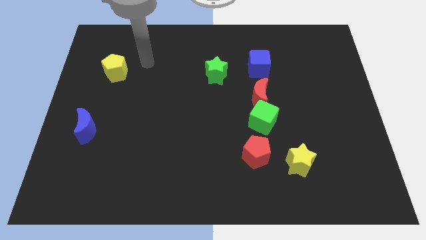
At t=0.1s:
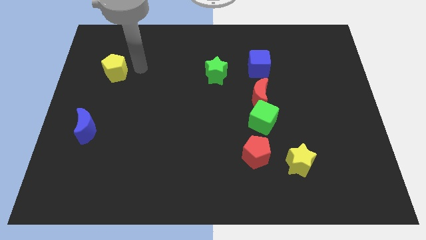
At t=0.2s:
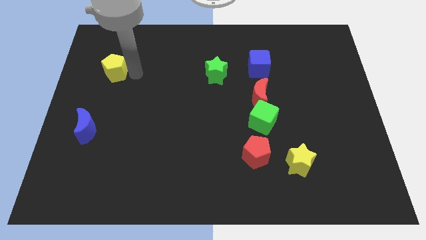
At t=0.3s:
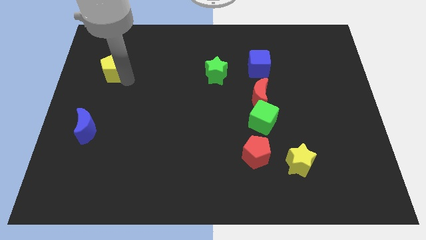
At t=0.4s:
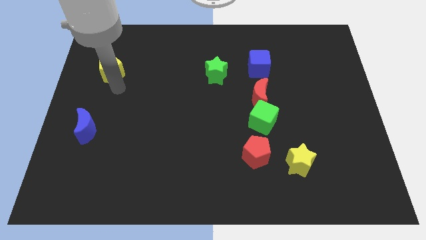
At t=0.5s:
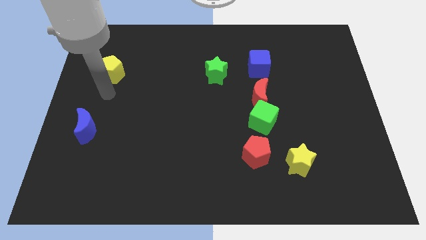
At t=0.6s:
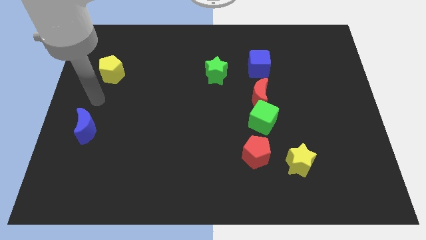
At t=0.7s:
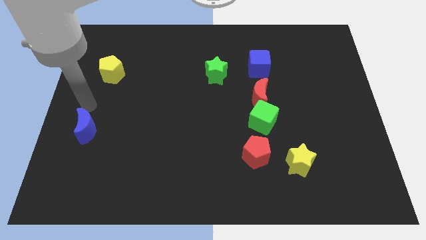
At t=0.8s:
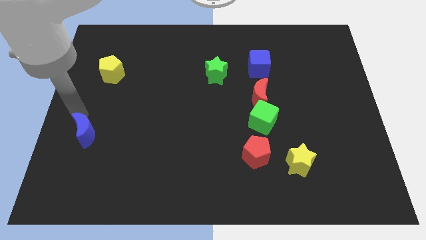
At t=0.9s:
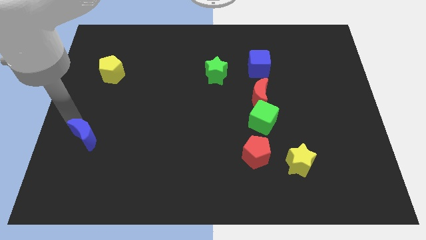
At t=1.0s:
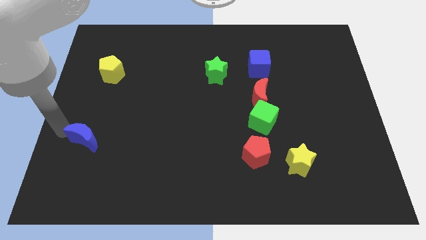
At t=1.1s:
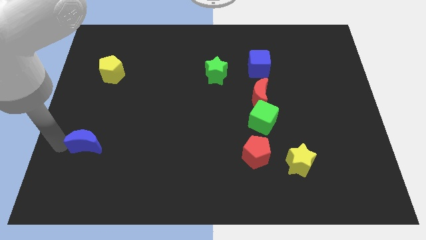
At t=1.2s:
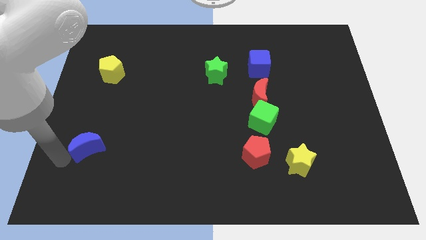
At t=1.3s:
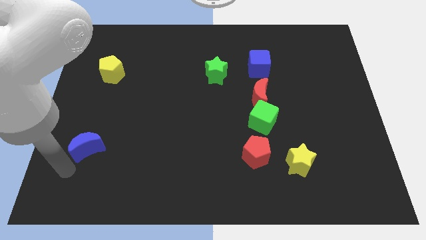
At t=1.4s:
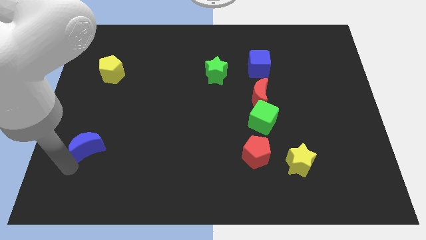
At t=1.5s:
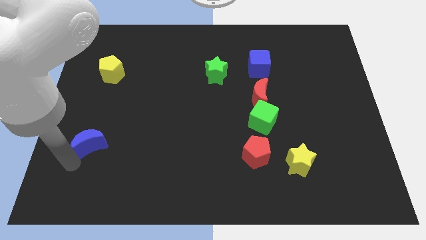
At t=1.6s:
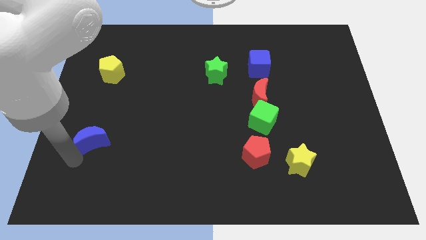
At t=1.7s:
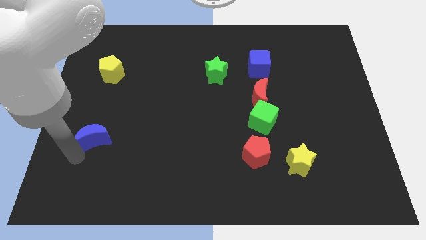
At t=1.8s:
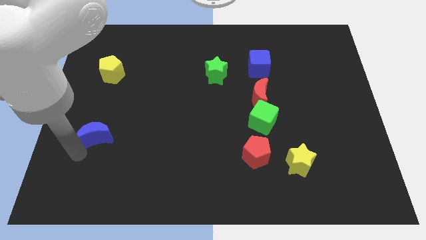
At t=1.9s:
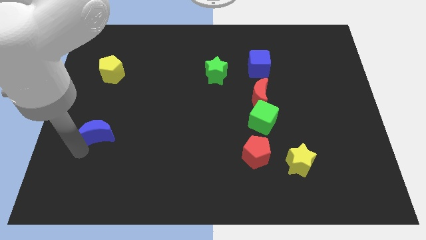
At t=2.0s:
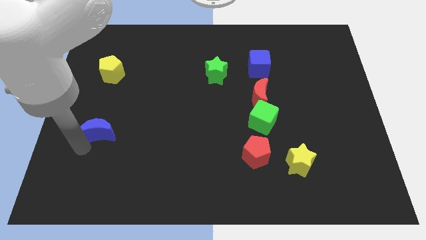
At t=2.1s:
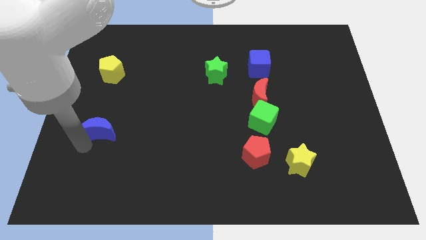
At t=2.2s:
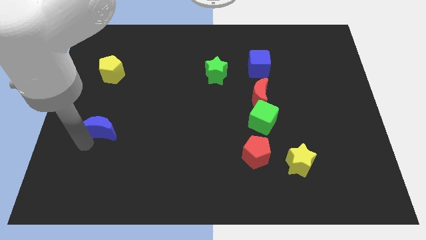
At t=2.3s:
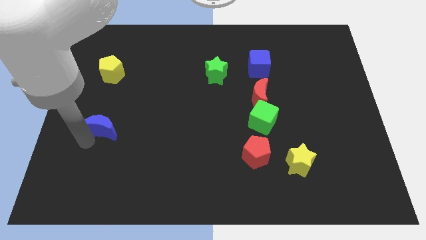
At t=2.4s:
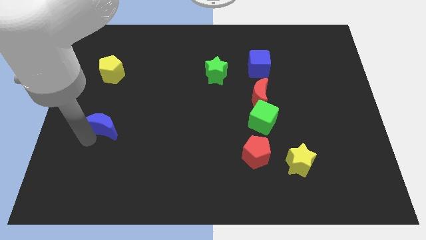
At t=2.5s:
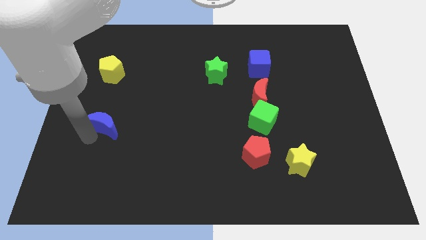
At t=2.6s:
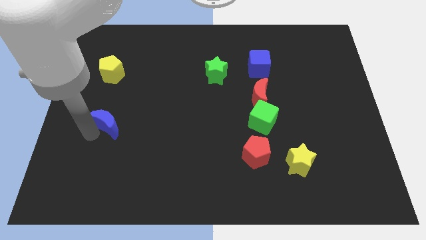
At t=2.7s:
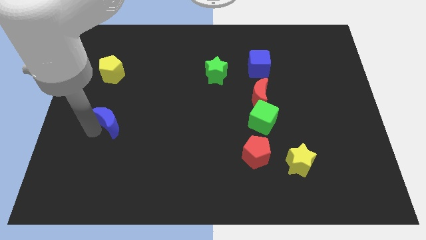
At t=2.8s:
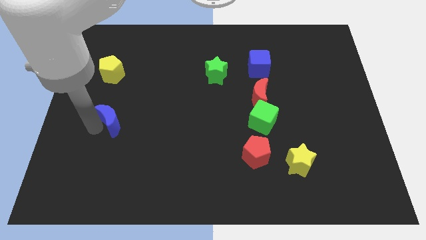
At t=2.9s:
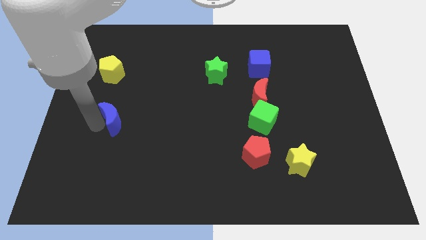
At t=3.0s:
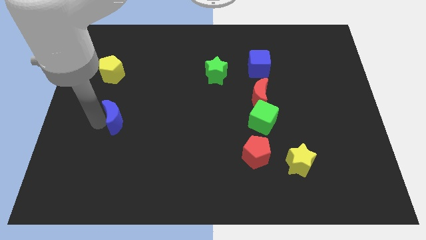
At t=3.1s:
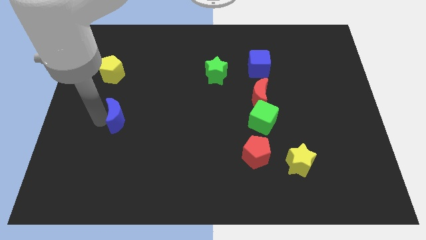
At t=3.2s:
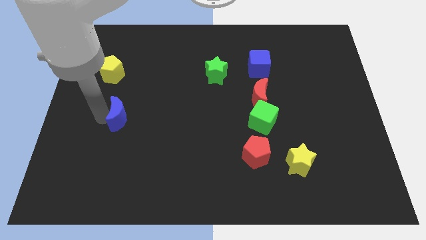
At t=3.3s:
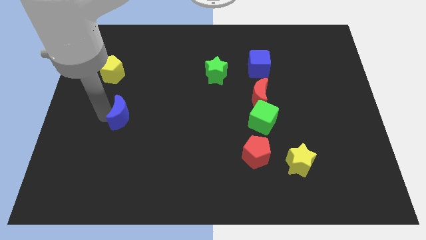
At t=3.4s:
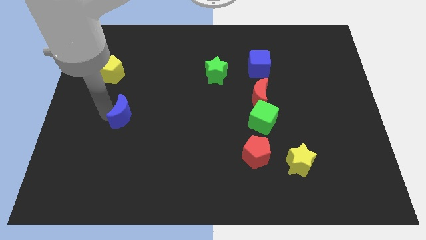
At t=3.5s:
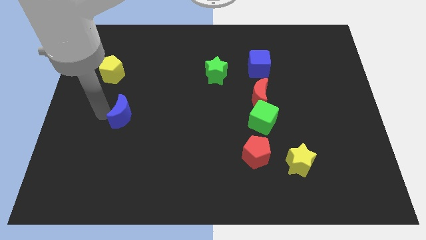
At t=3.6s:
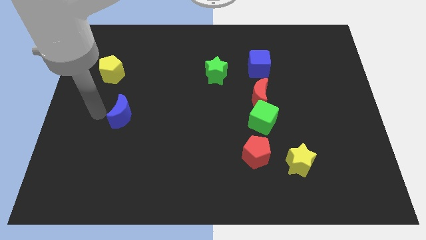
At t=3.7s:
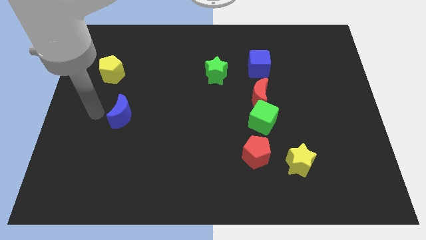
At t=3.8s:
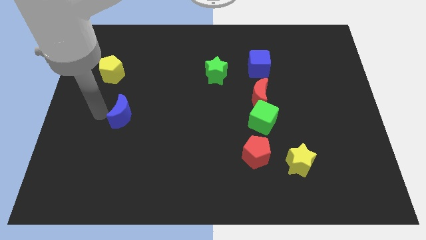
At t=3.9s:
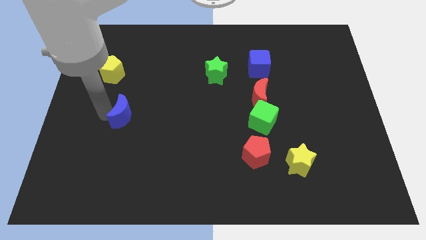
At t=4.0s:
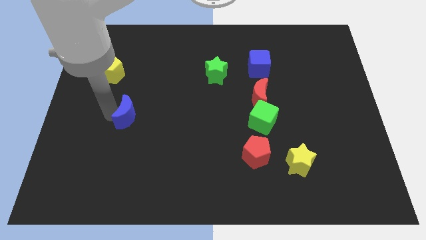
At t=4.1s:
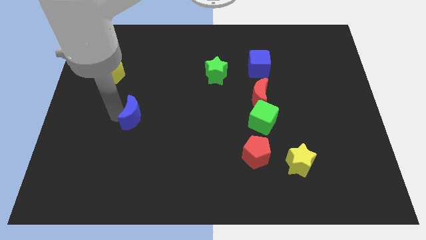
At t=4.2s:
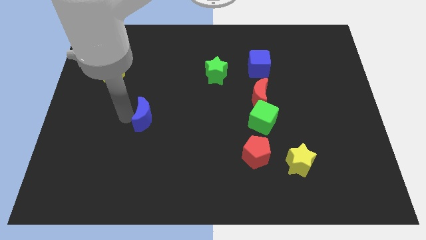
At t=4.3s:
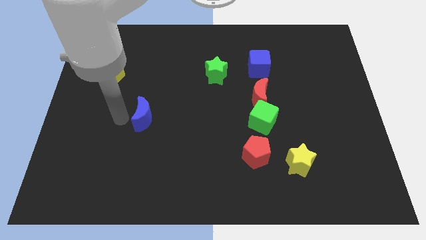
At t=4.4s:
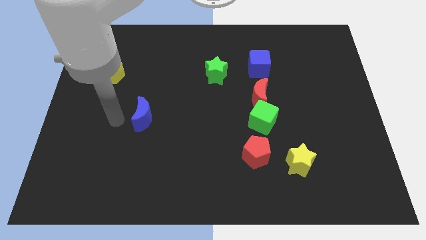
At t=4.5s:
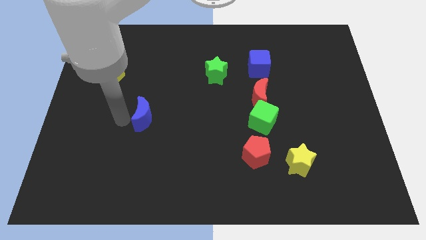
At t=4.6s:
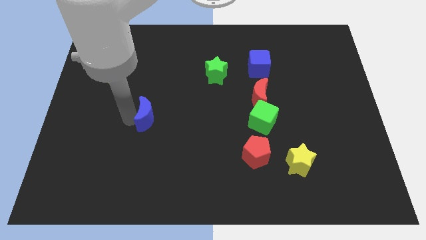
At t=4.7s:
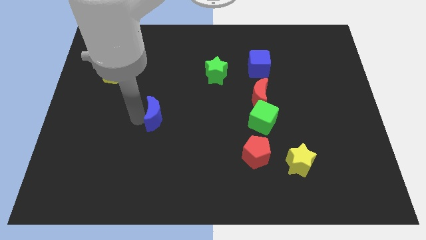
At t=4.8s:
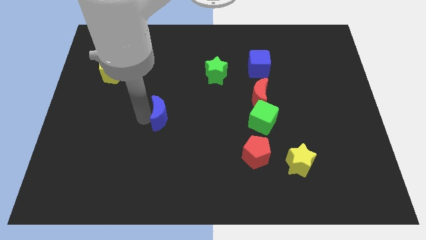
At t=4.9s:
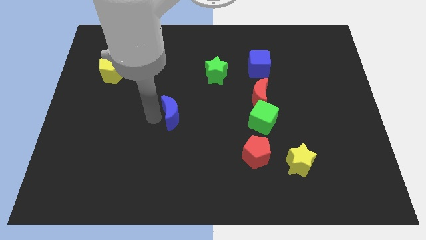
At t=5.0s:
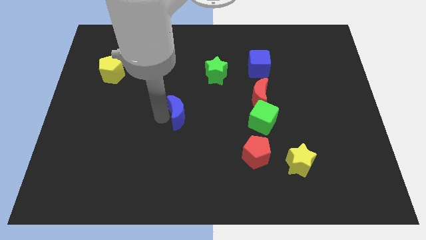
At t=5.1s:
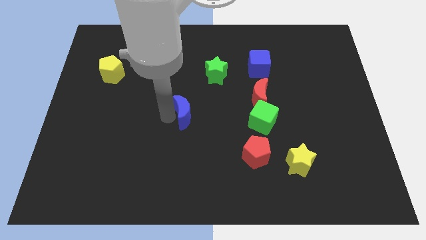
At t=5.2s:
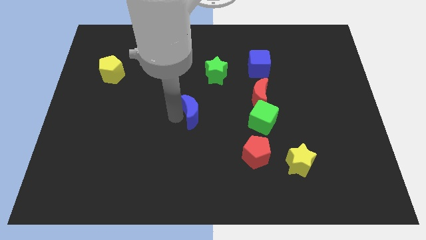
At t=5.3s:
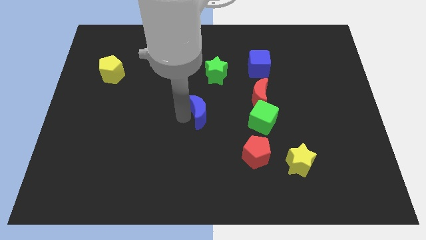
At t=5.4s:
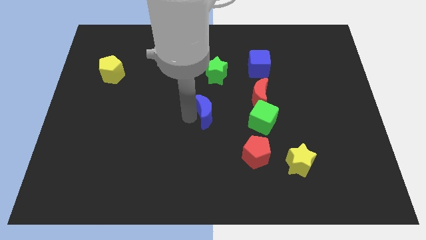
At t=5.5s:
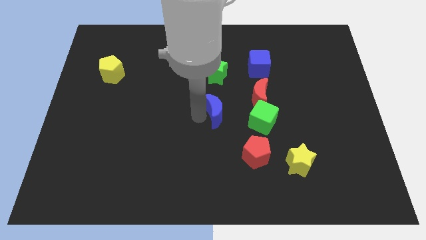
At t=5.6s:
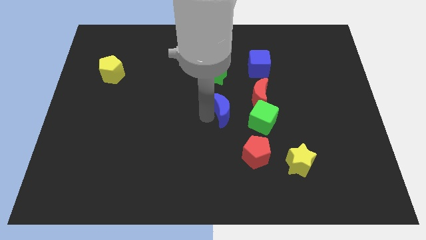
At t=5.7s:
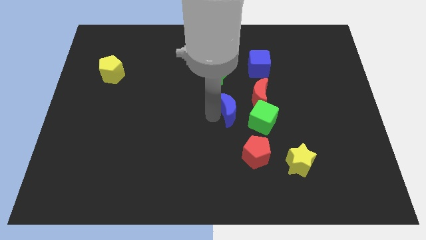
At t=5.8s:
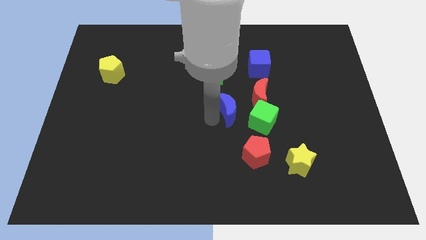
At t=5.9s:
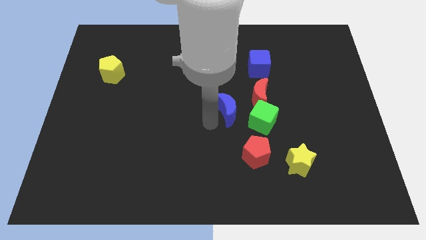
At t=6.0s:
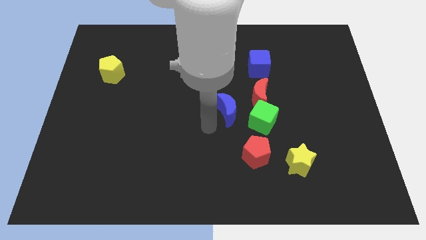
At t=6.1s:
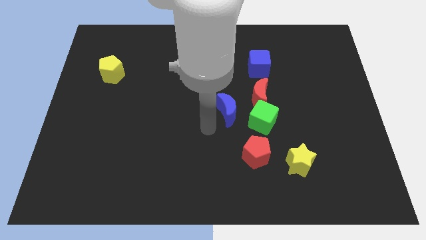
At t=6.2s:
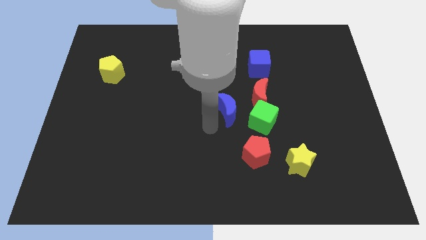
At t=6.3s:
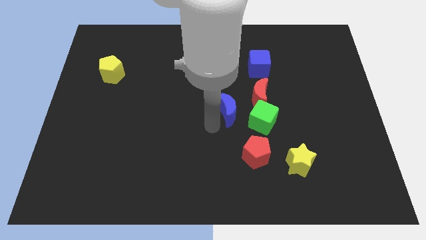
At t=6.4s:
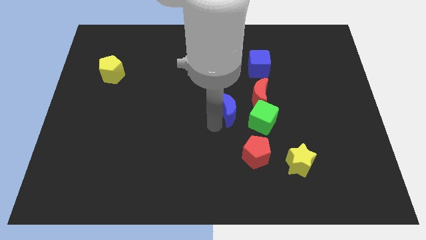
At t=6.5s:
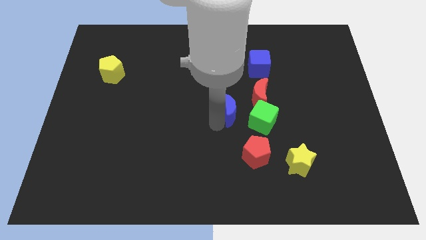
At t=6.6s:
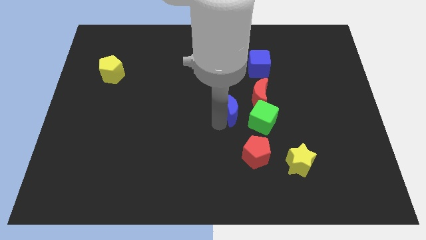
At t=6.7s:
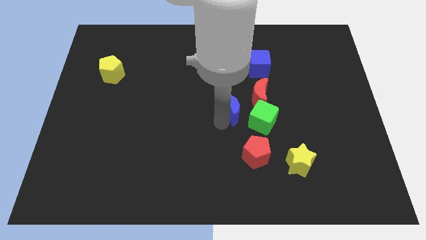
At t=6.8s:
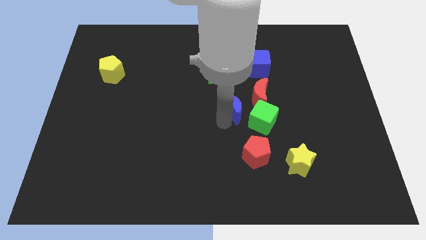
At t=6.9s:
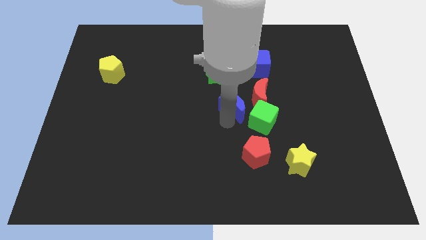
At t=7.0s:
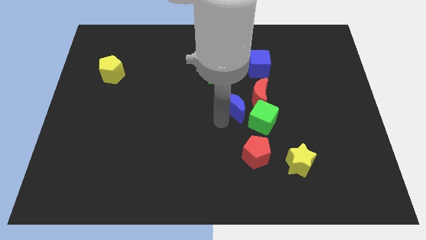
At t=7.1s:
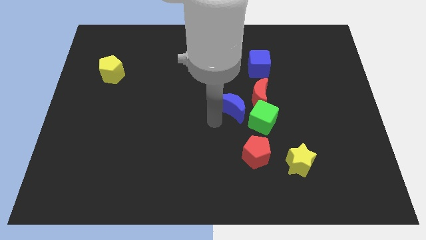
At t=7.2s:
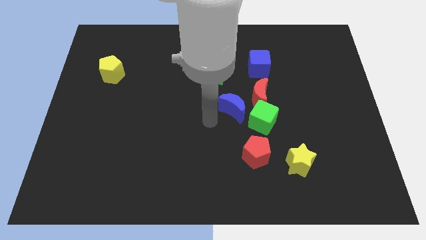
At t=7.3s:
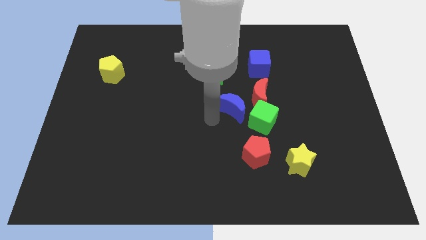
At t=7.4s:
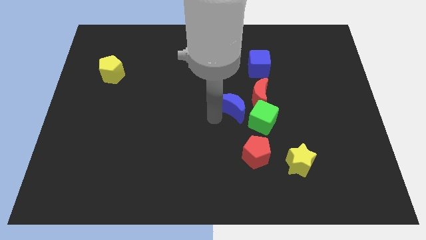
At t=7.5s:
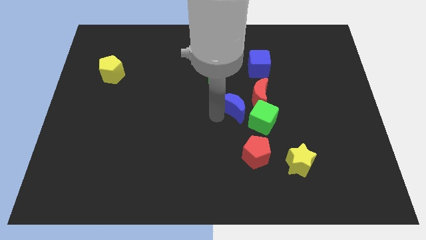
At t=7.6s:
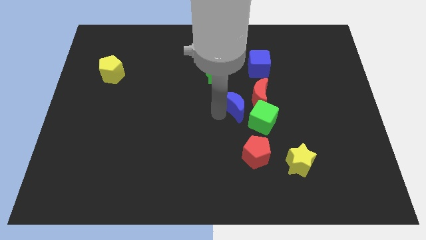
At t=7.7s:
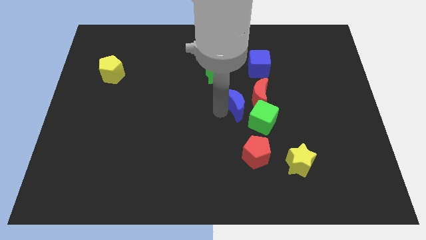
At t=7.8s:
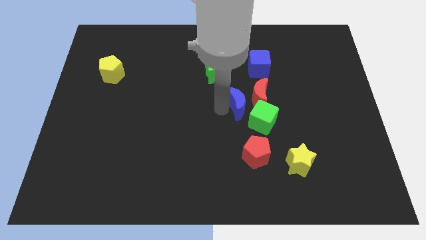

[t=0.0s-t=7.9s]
push the blue moon to the red moon

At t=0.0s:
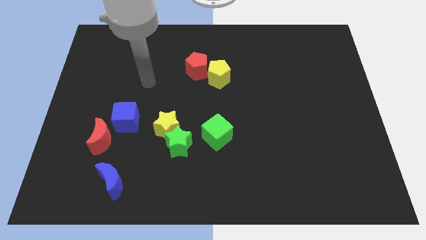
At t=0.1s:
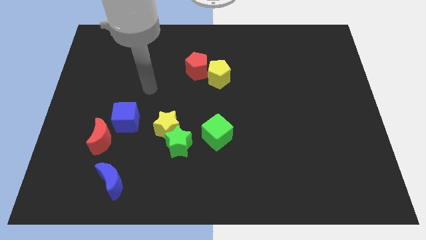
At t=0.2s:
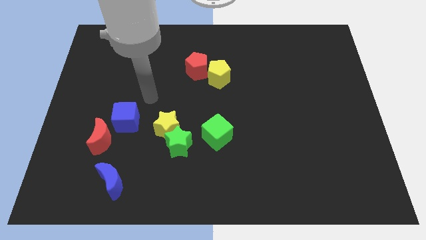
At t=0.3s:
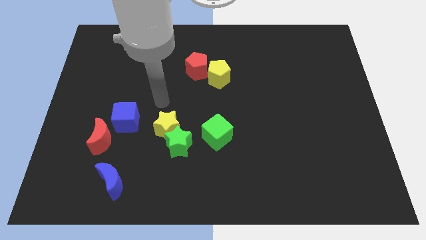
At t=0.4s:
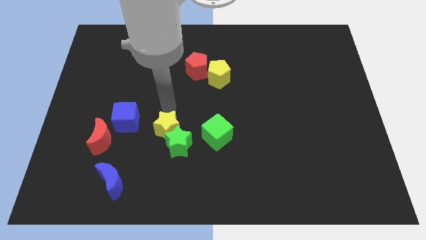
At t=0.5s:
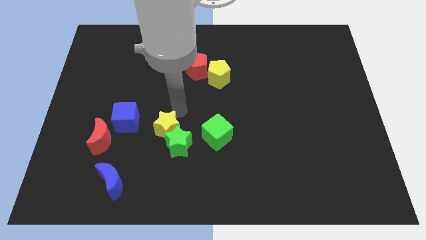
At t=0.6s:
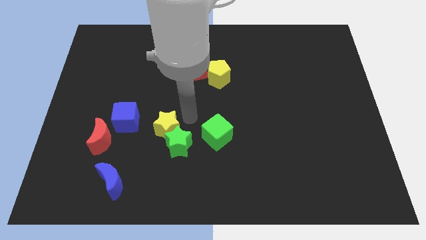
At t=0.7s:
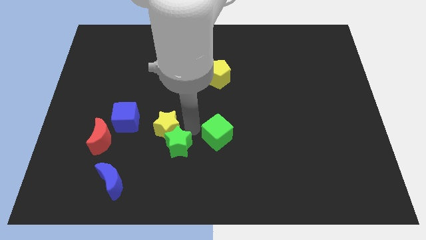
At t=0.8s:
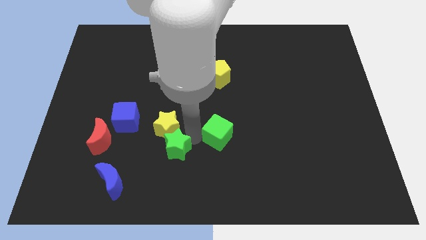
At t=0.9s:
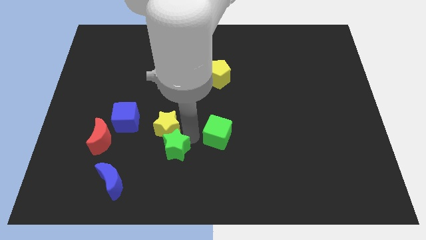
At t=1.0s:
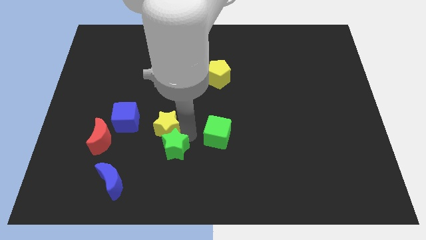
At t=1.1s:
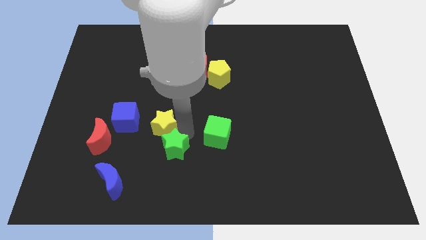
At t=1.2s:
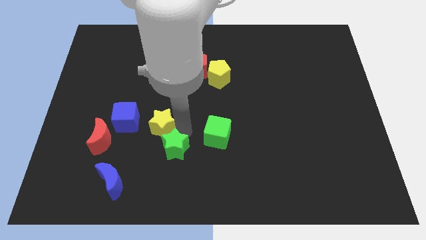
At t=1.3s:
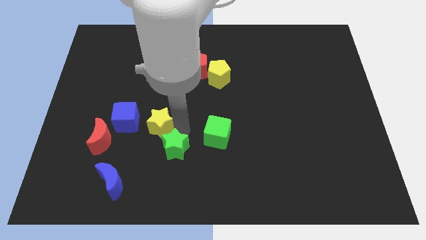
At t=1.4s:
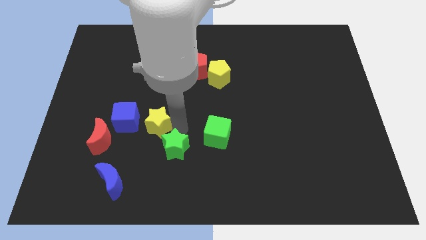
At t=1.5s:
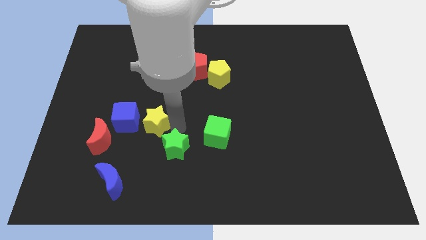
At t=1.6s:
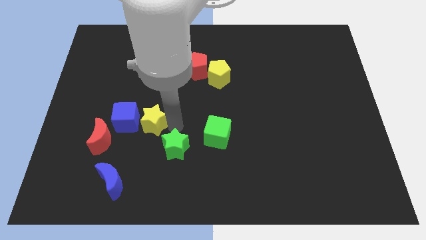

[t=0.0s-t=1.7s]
push the yellow star next to the blue cube
